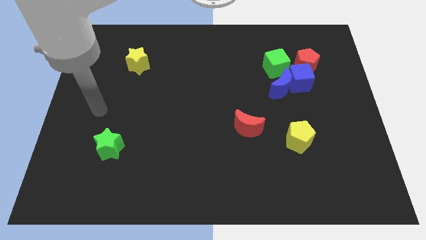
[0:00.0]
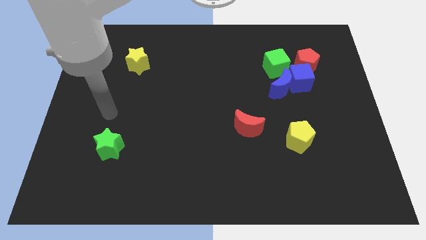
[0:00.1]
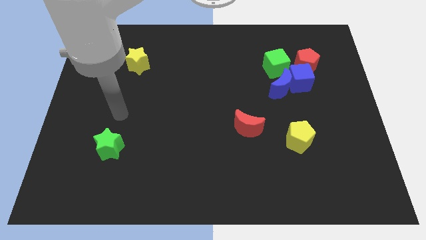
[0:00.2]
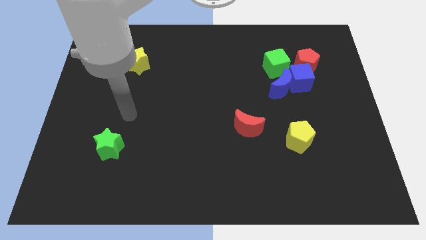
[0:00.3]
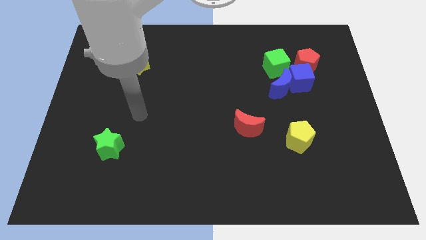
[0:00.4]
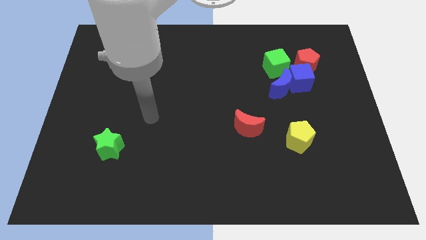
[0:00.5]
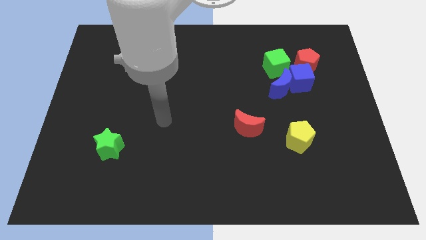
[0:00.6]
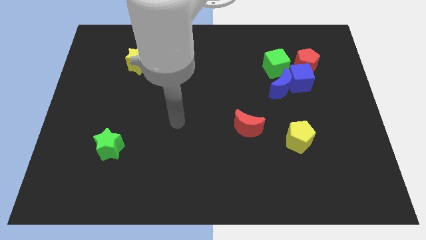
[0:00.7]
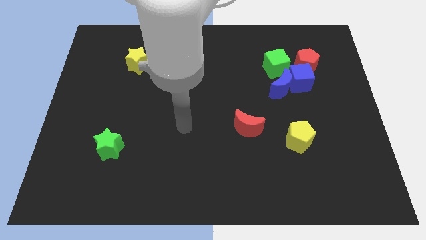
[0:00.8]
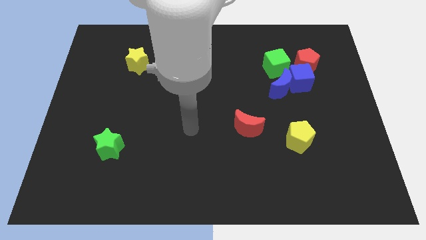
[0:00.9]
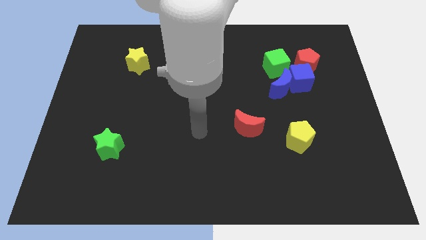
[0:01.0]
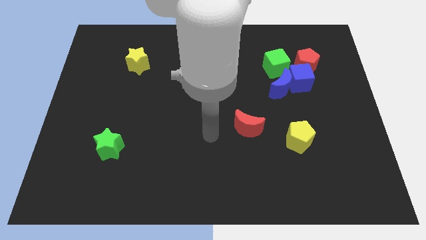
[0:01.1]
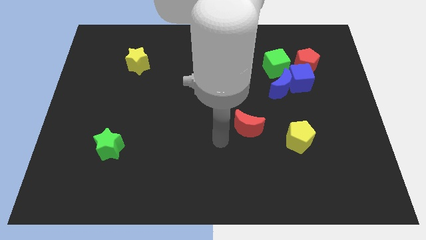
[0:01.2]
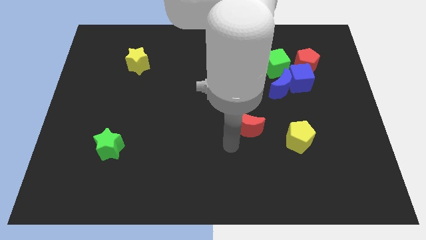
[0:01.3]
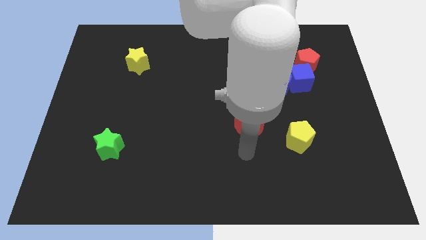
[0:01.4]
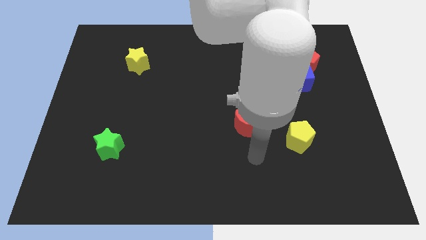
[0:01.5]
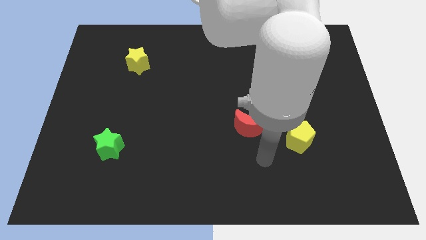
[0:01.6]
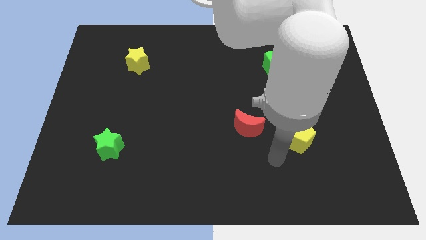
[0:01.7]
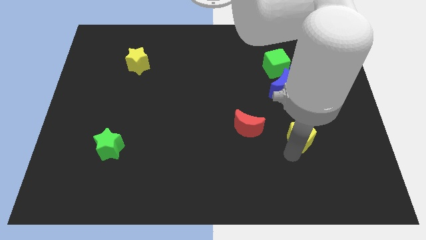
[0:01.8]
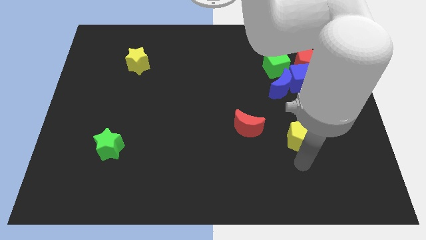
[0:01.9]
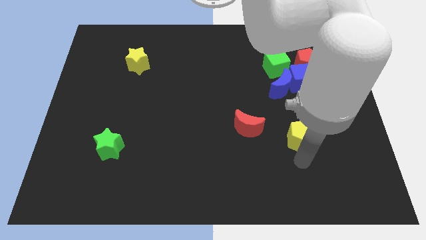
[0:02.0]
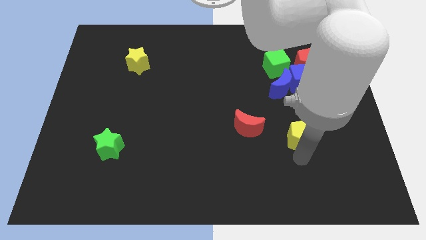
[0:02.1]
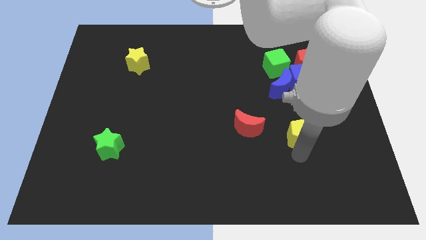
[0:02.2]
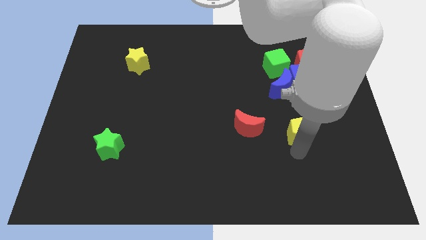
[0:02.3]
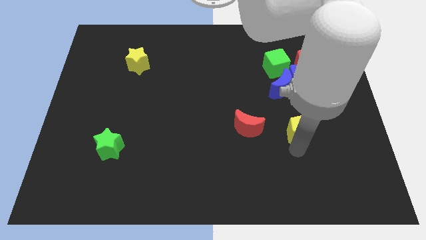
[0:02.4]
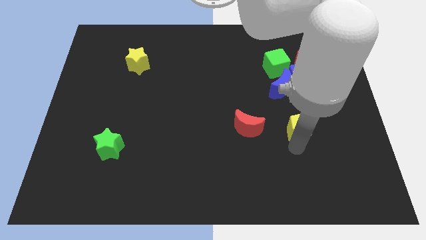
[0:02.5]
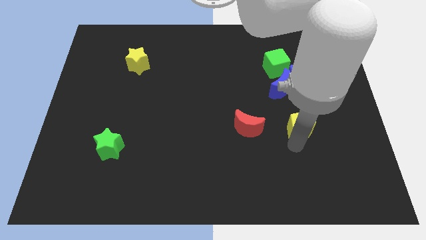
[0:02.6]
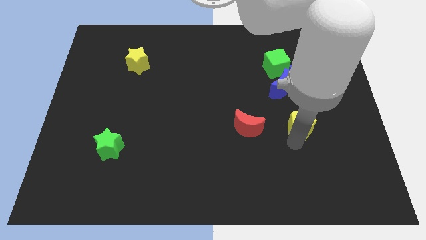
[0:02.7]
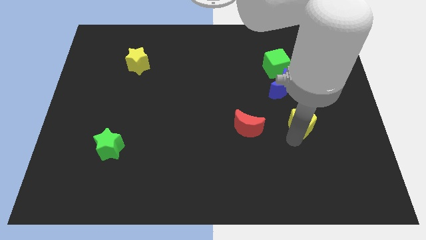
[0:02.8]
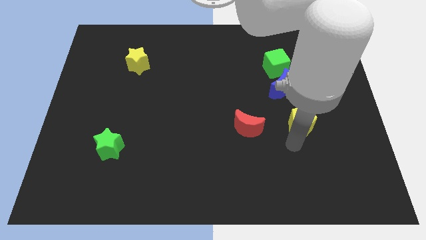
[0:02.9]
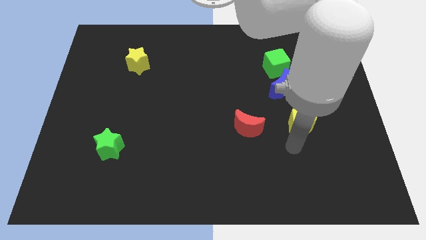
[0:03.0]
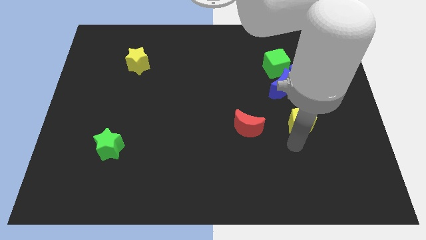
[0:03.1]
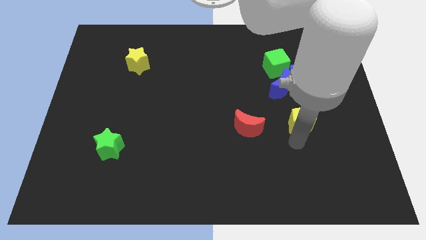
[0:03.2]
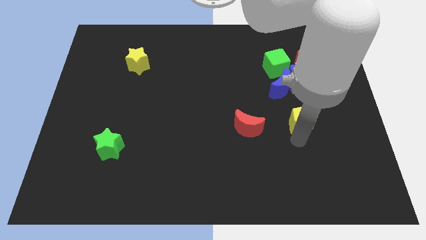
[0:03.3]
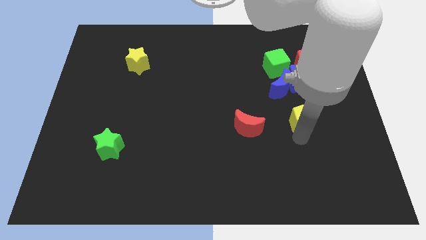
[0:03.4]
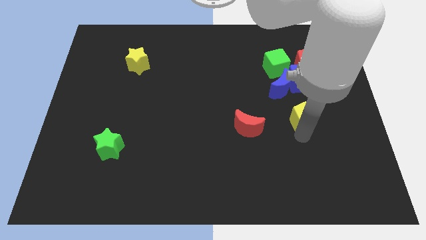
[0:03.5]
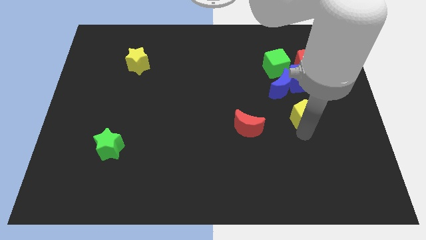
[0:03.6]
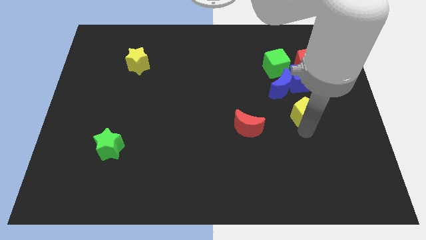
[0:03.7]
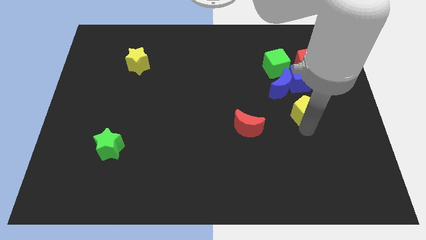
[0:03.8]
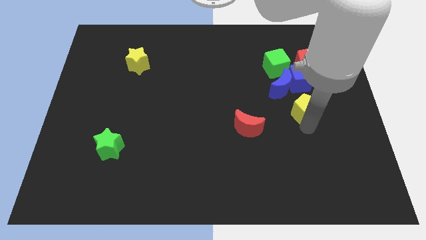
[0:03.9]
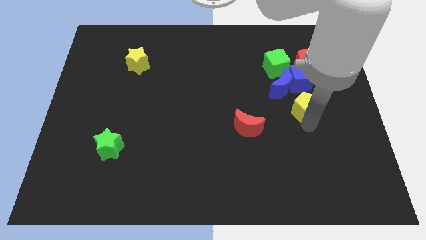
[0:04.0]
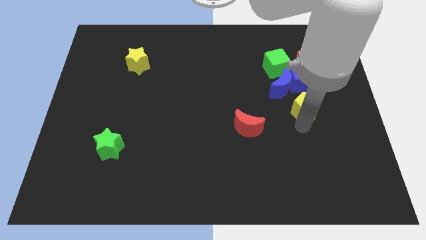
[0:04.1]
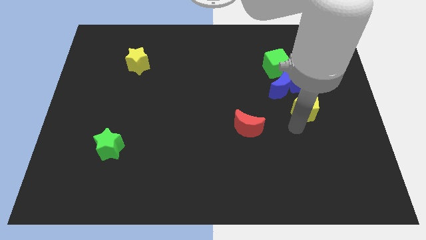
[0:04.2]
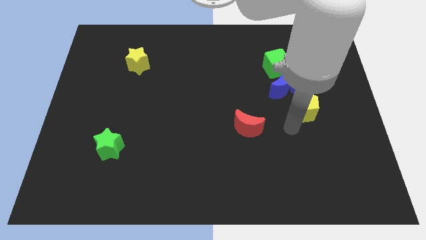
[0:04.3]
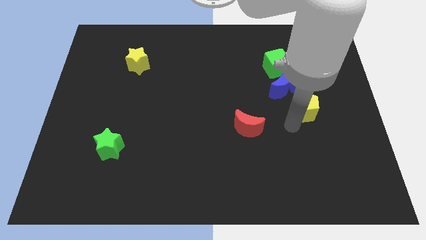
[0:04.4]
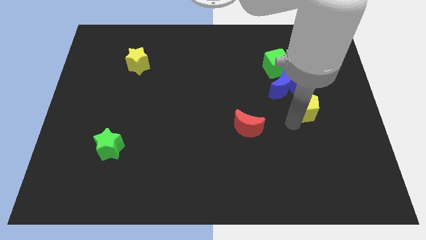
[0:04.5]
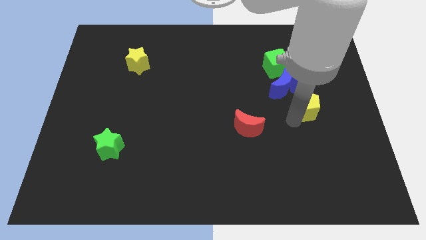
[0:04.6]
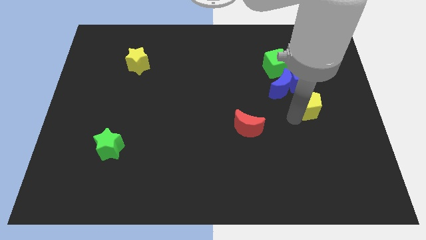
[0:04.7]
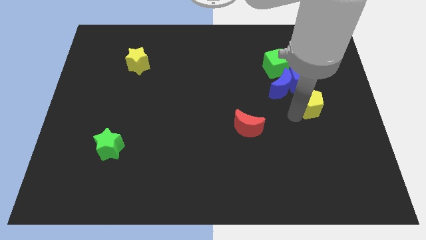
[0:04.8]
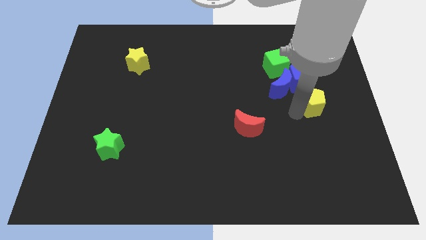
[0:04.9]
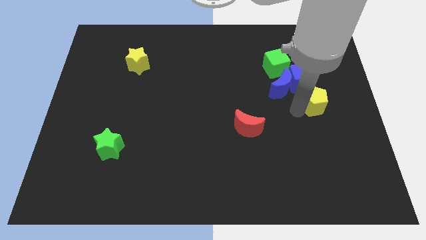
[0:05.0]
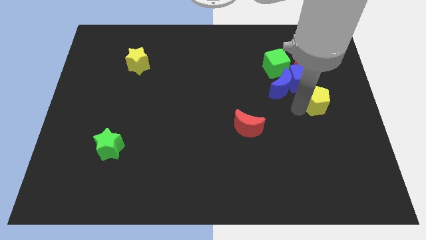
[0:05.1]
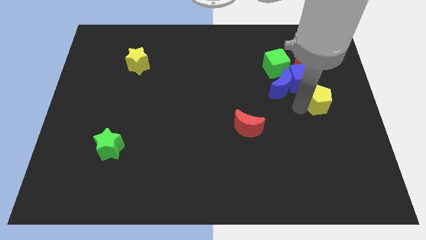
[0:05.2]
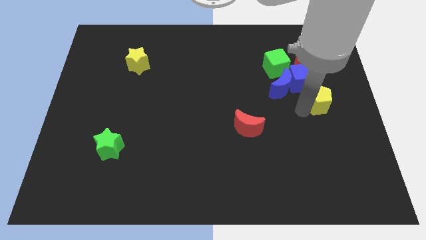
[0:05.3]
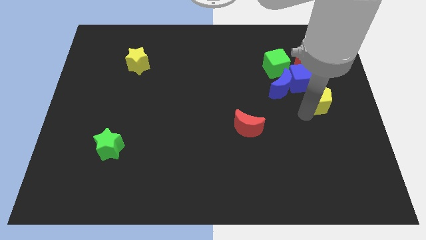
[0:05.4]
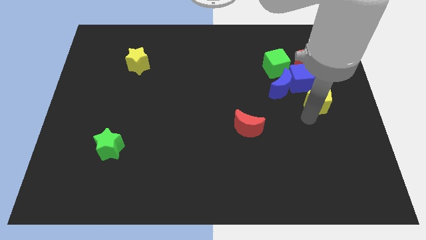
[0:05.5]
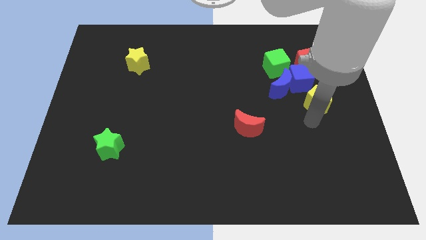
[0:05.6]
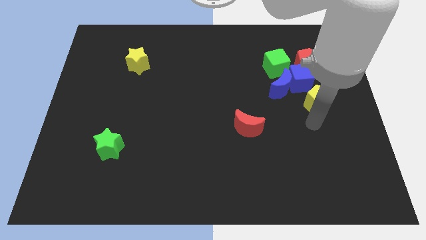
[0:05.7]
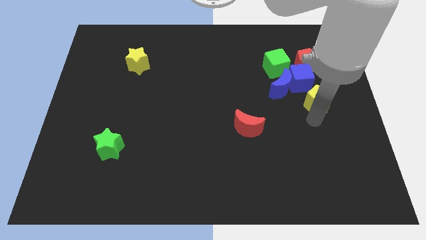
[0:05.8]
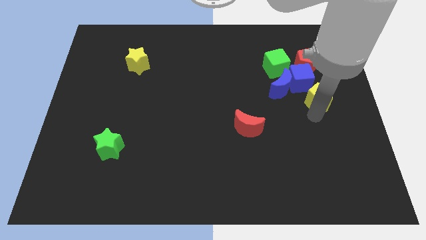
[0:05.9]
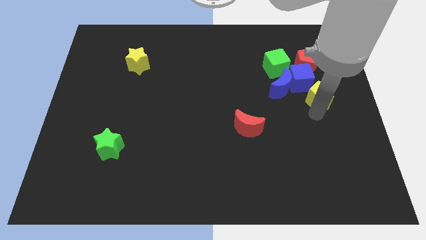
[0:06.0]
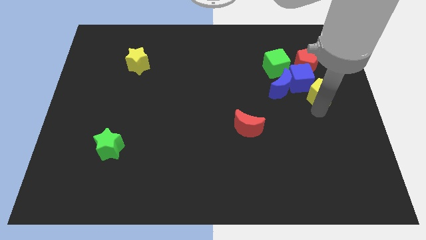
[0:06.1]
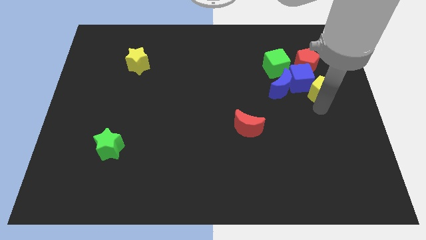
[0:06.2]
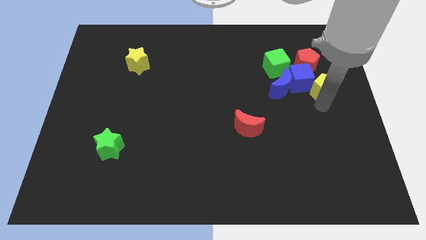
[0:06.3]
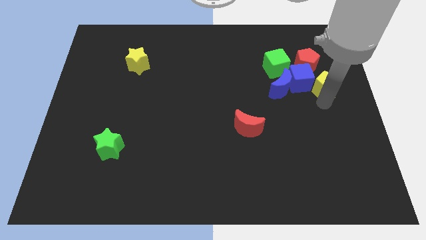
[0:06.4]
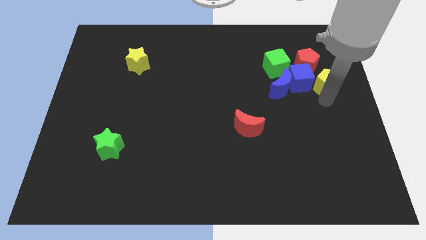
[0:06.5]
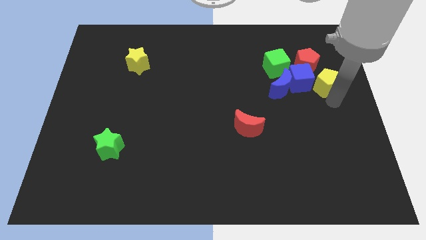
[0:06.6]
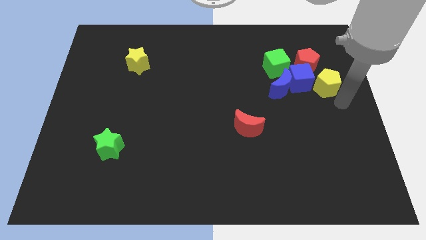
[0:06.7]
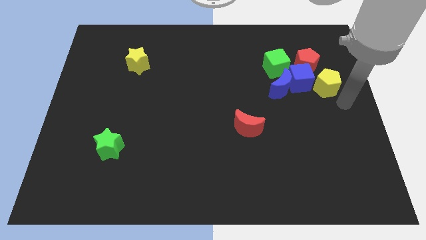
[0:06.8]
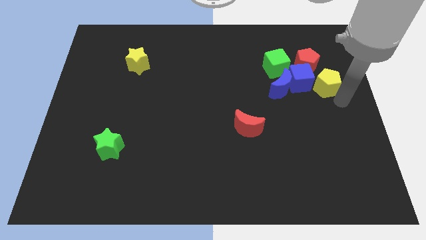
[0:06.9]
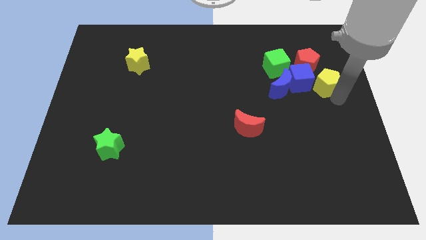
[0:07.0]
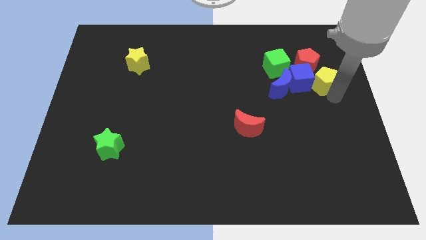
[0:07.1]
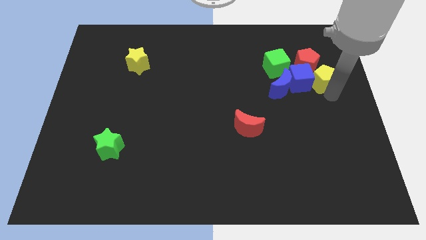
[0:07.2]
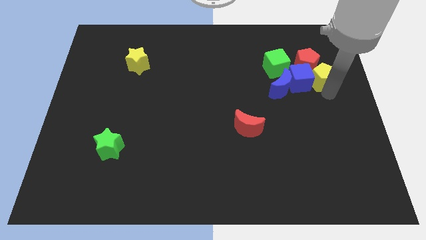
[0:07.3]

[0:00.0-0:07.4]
push the yellow pentagon next to the red pentagon

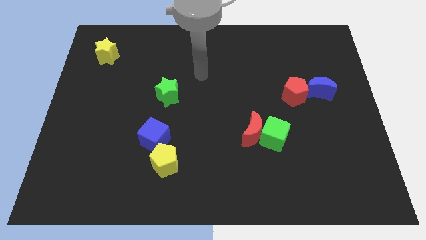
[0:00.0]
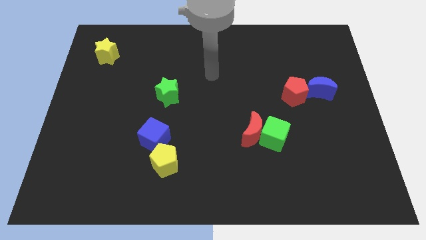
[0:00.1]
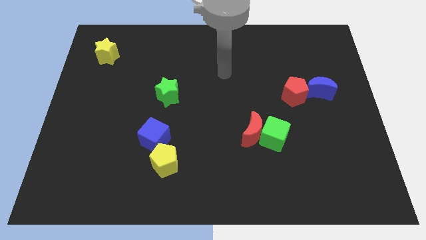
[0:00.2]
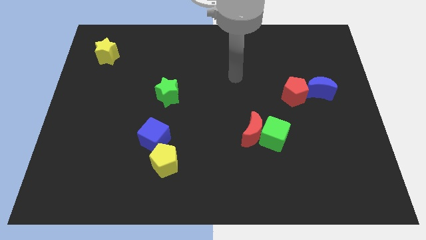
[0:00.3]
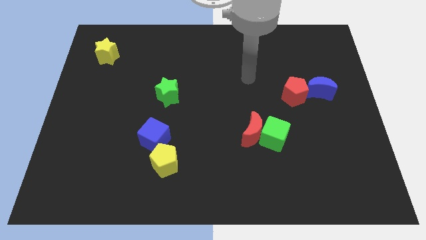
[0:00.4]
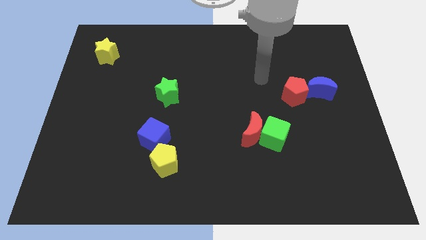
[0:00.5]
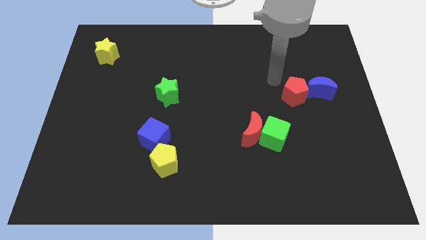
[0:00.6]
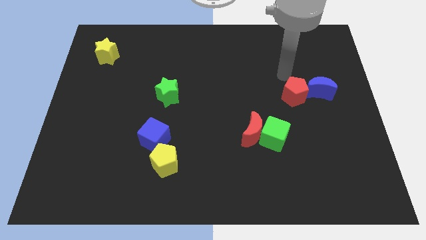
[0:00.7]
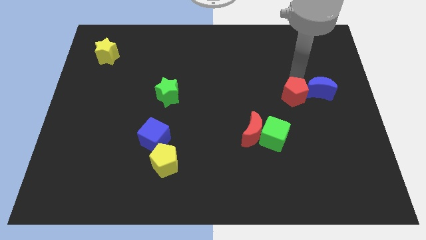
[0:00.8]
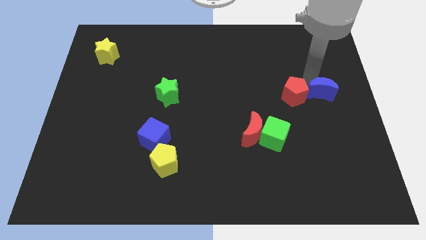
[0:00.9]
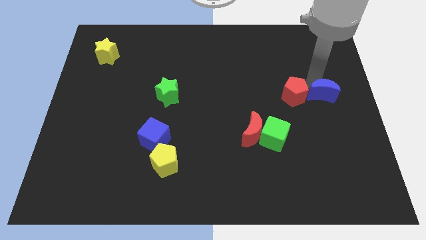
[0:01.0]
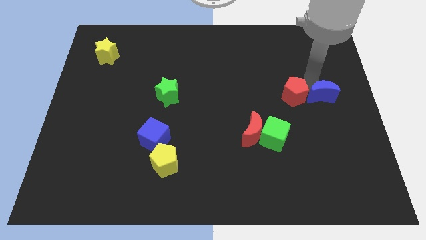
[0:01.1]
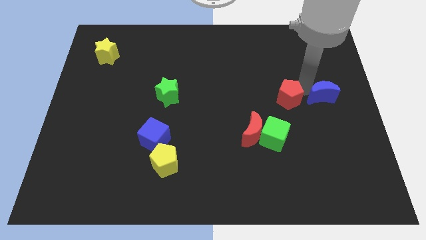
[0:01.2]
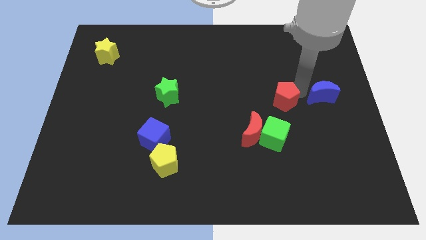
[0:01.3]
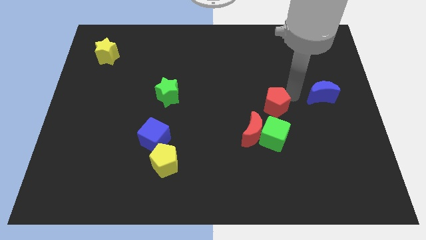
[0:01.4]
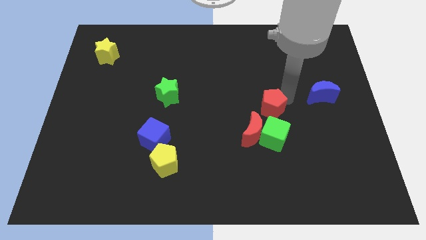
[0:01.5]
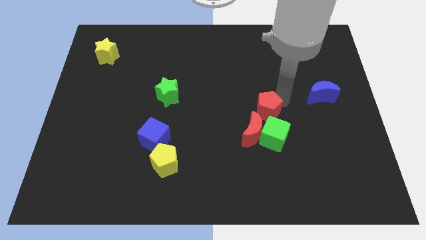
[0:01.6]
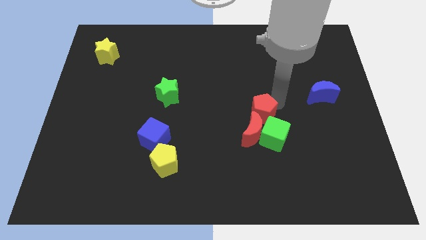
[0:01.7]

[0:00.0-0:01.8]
move the red pentagon close to the red moon
